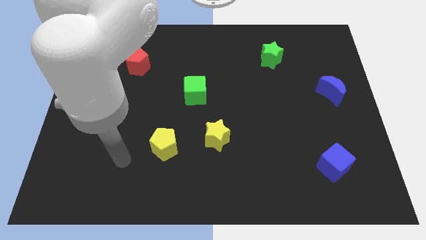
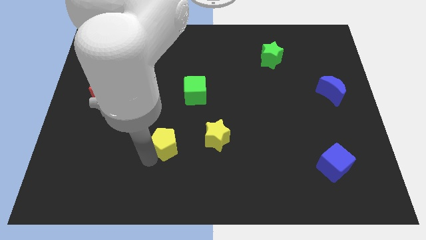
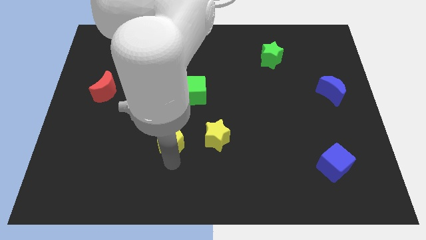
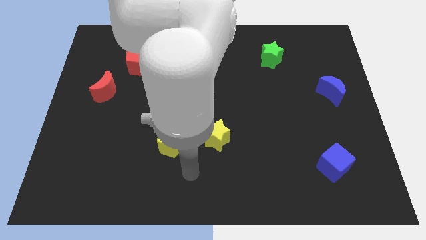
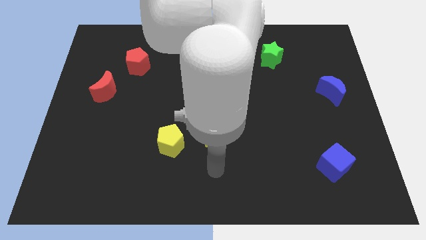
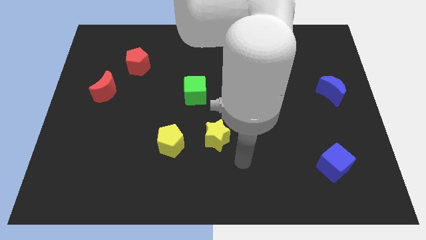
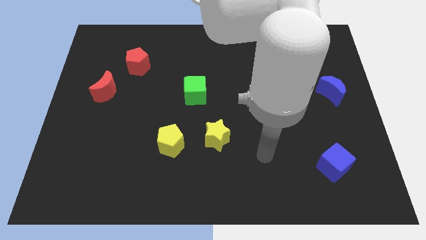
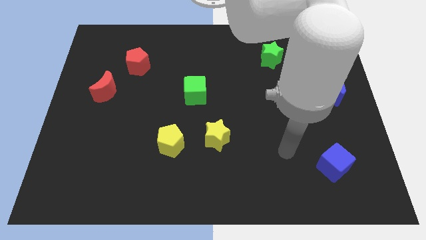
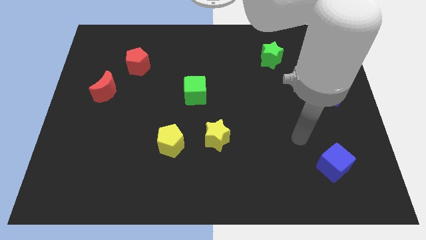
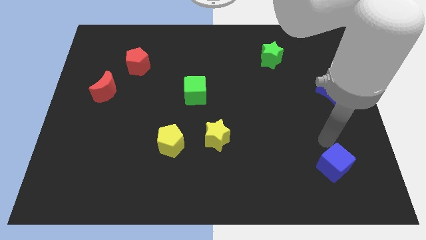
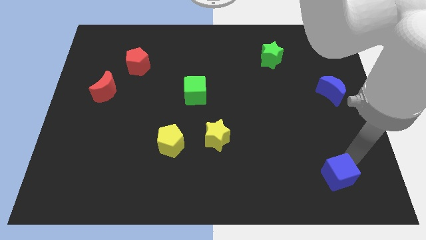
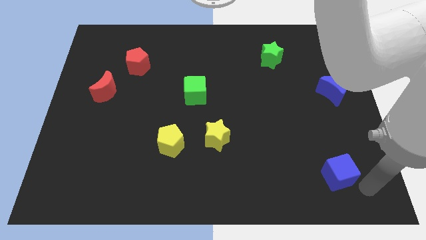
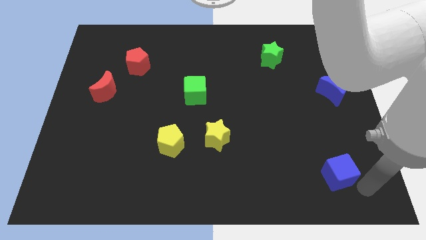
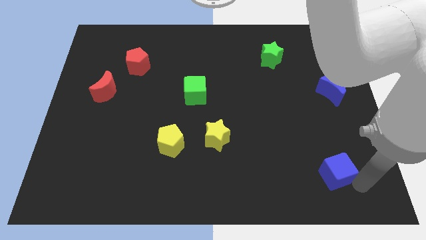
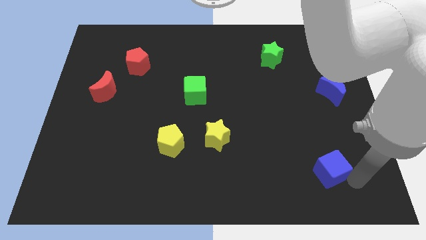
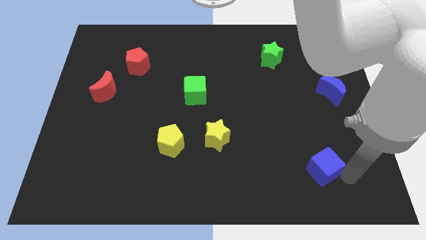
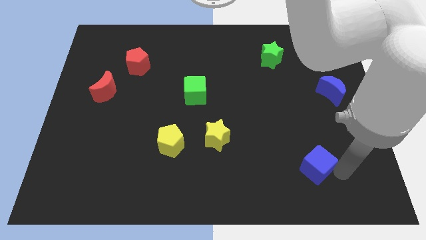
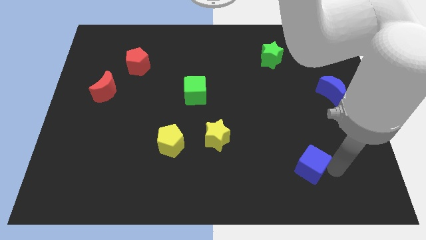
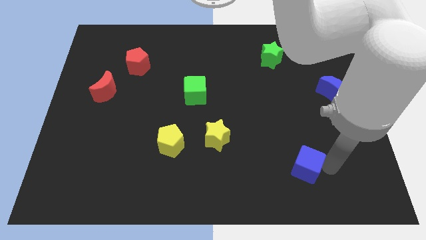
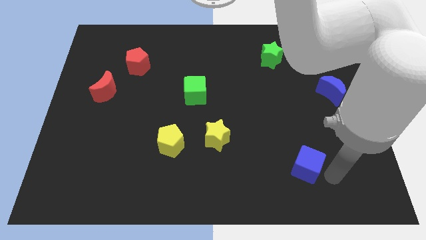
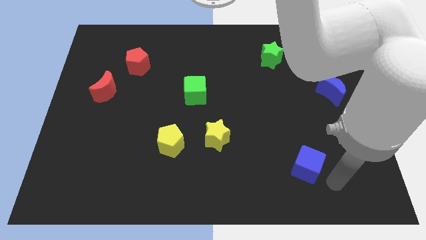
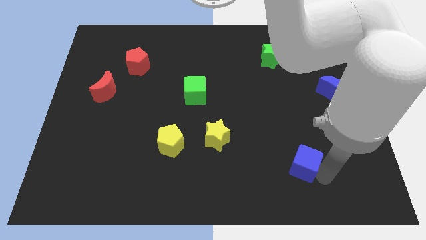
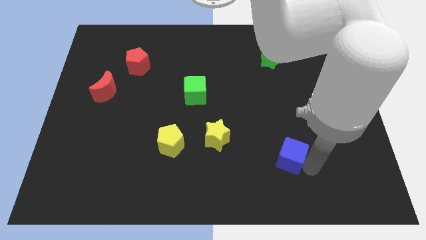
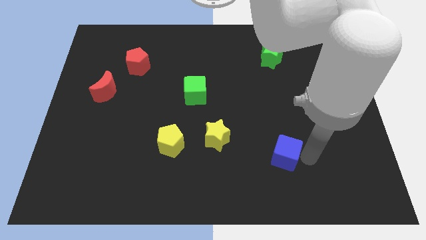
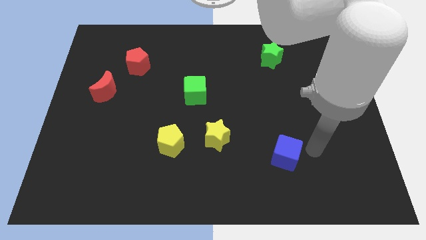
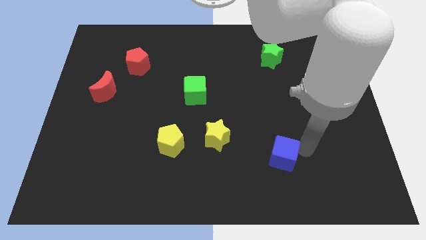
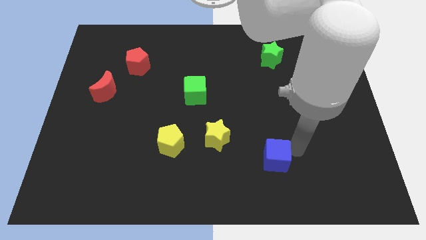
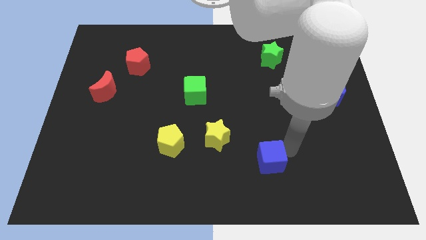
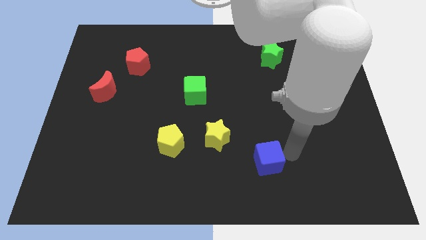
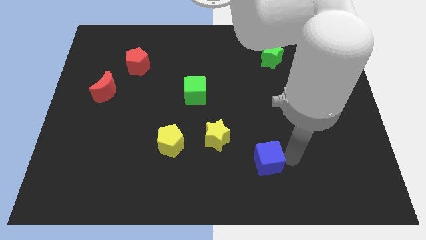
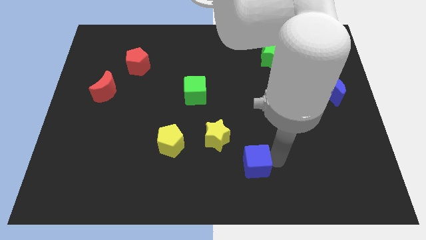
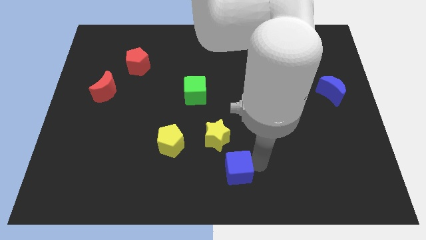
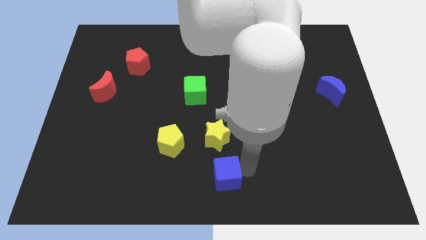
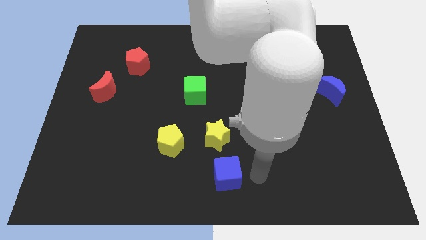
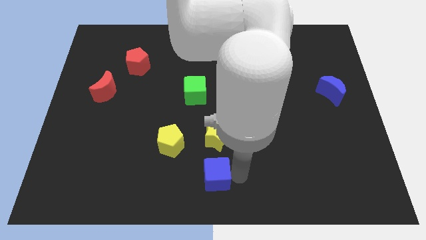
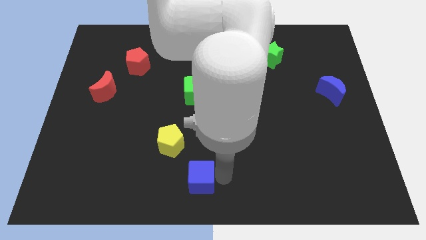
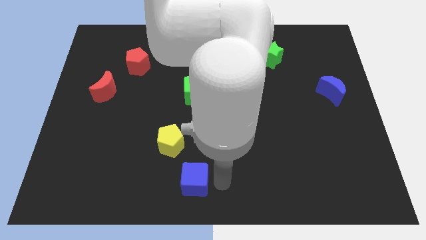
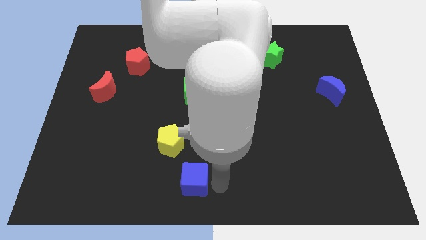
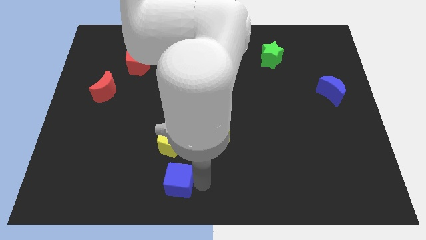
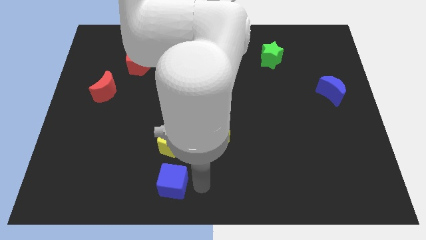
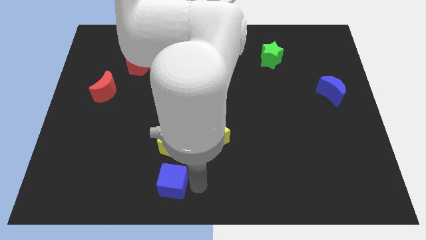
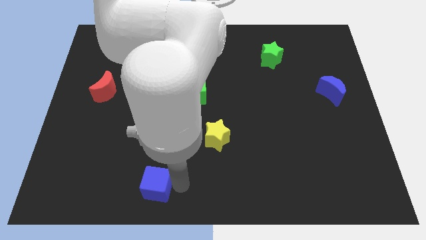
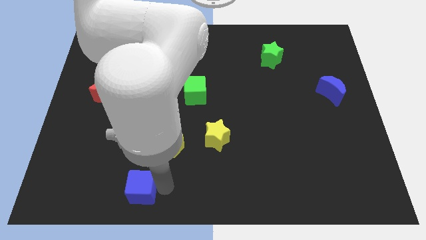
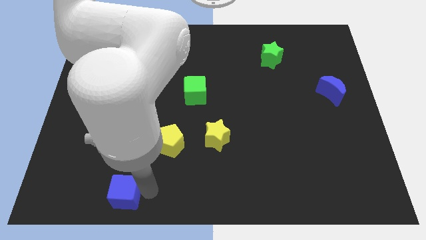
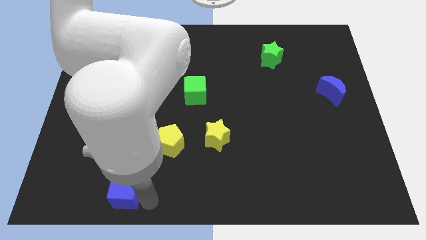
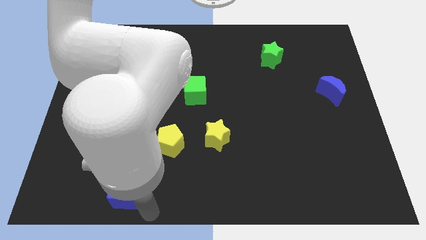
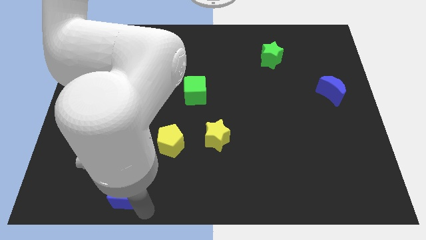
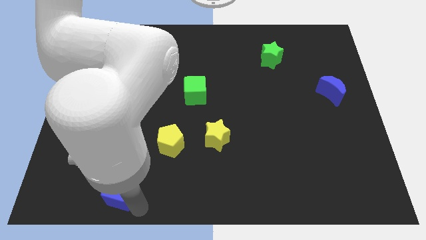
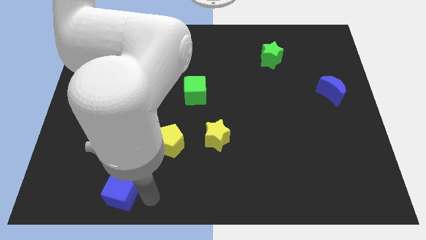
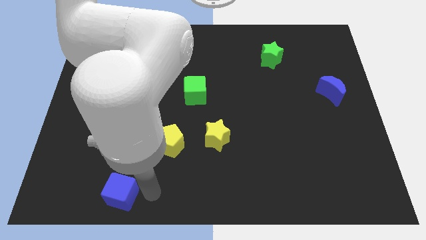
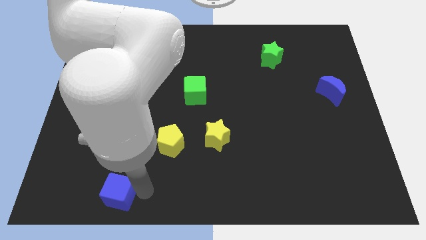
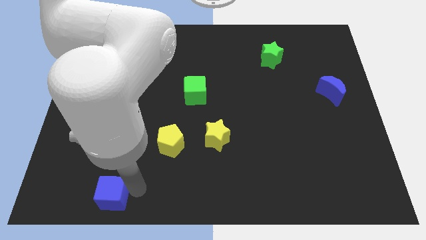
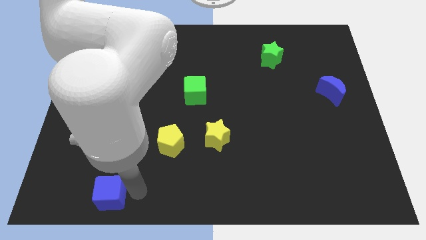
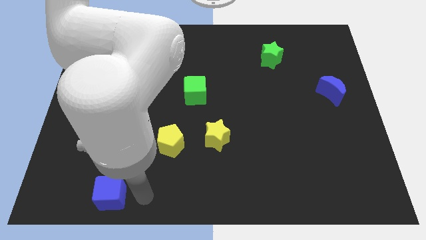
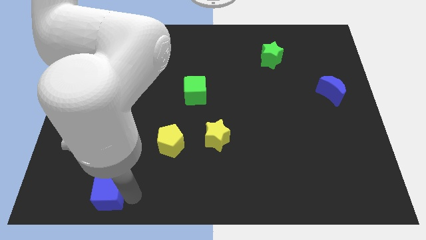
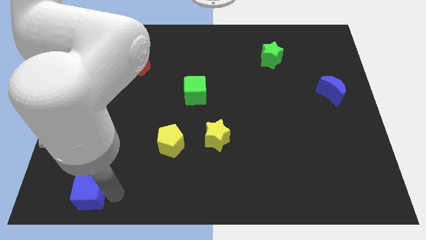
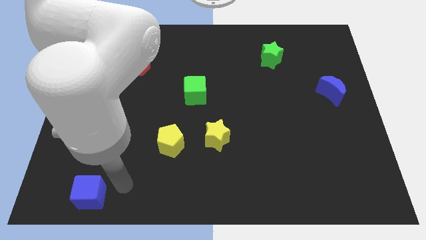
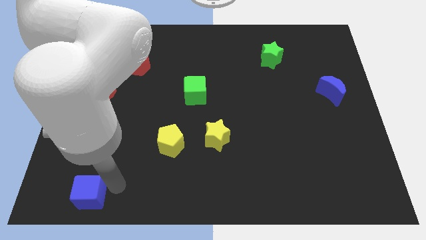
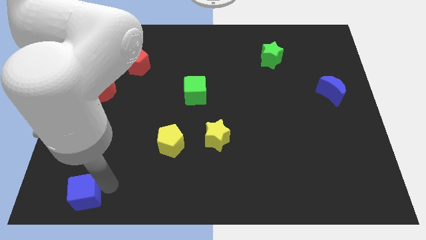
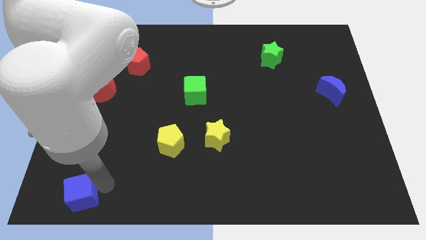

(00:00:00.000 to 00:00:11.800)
move the blue cube to the bottom left corner

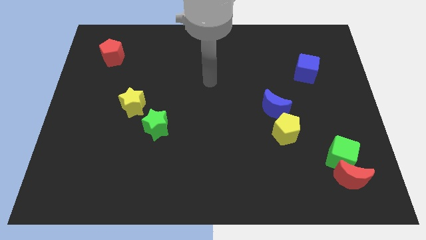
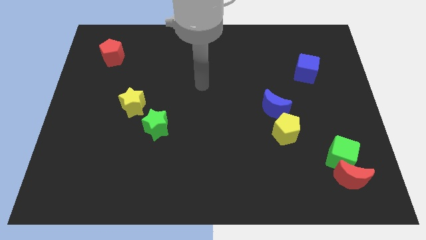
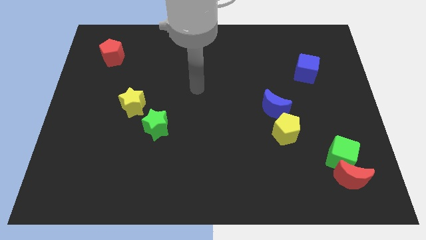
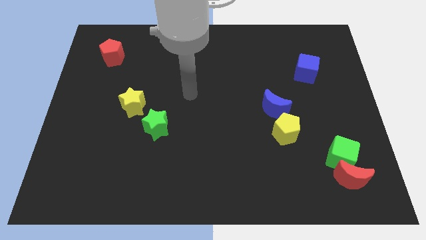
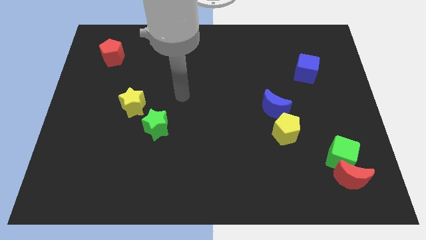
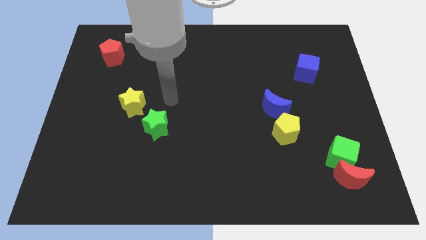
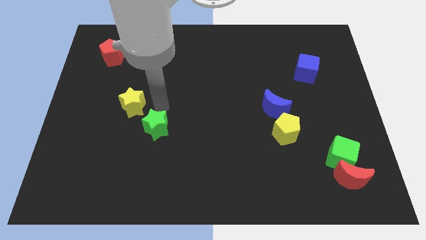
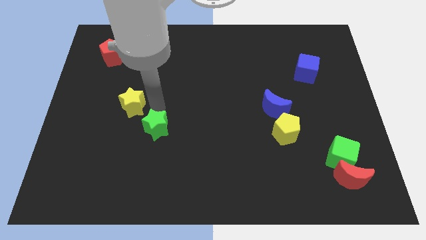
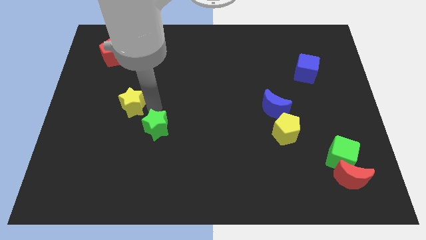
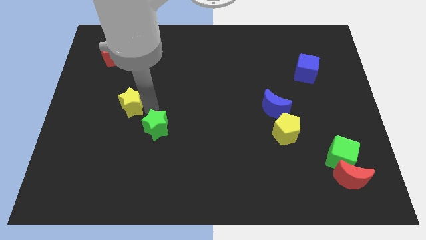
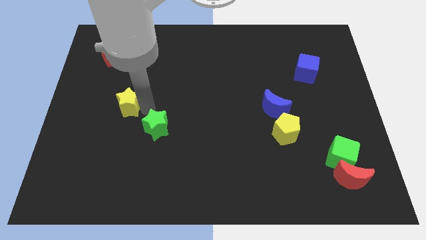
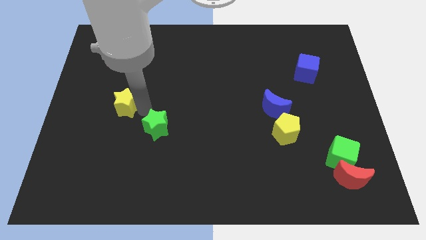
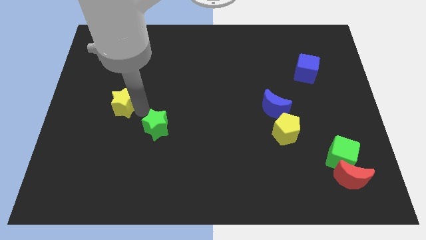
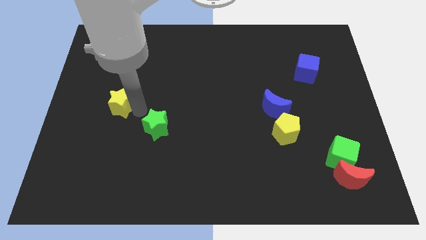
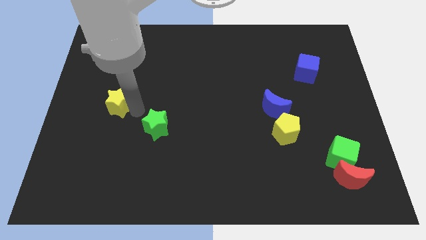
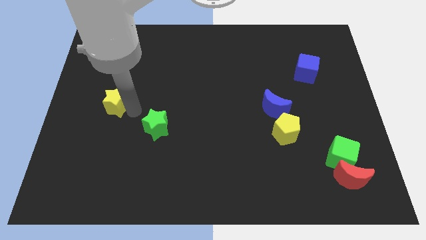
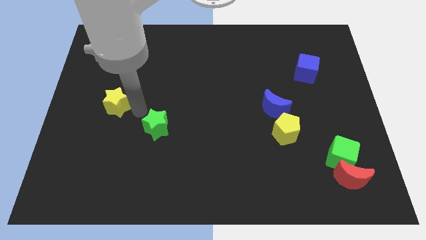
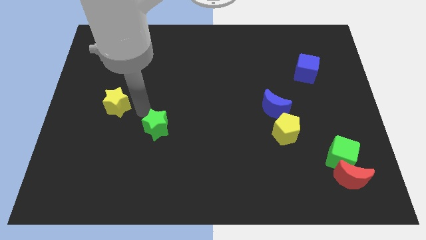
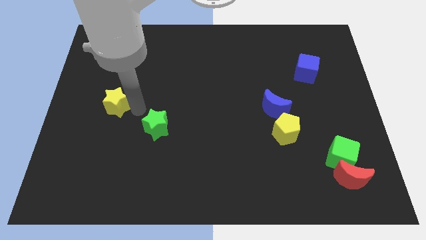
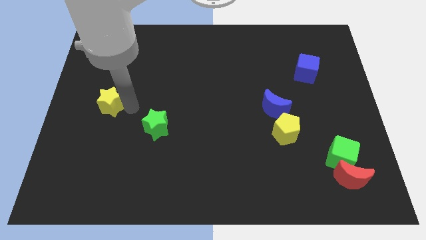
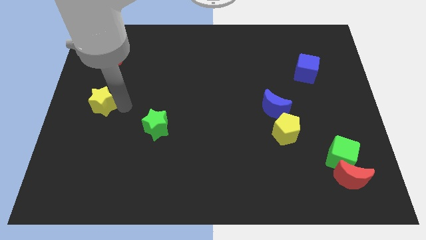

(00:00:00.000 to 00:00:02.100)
slide the yellow star to the left side
